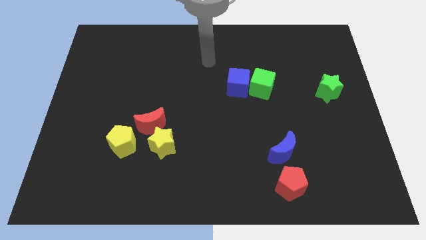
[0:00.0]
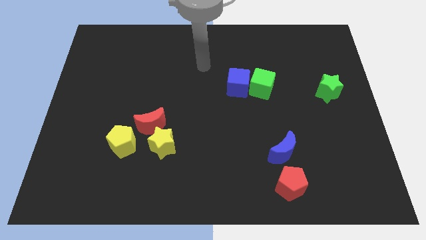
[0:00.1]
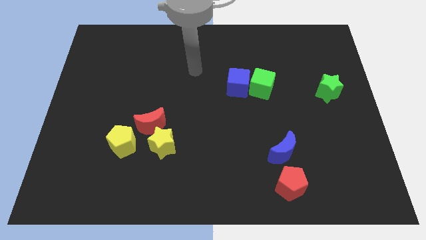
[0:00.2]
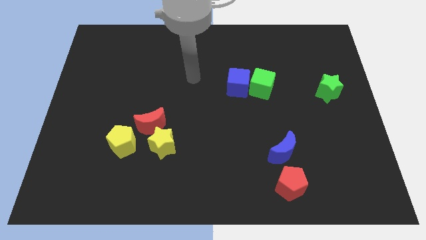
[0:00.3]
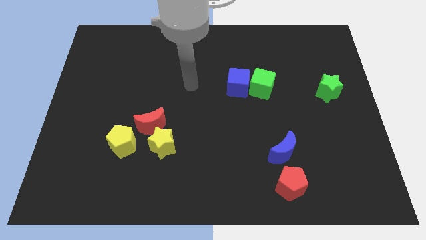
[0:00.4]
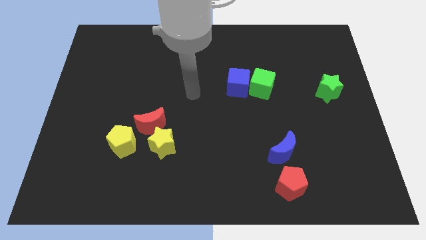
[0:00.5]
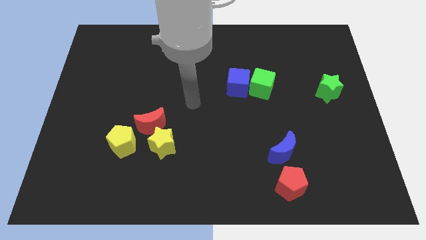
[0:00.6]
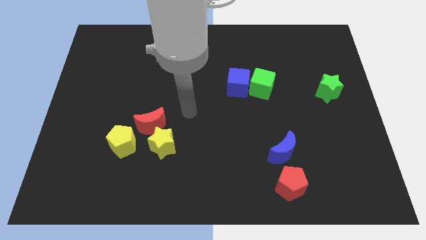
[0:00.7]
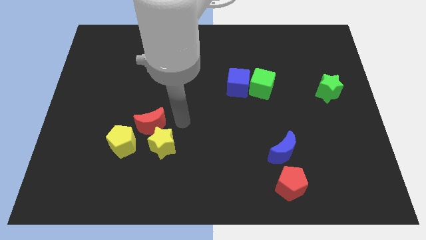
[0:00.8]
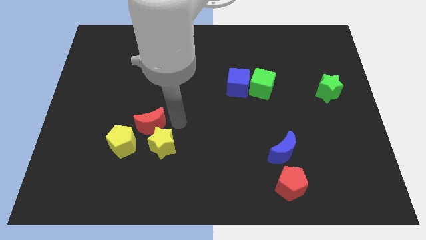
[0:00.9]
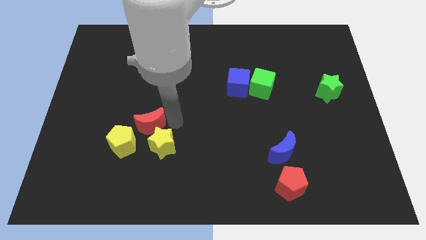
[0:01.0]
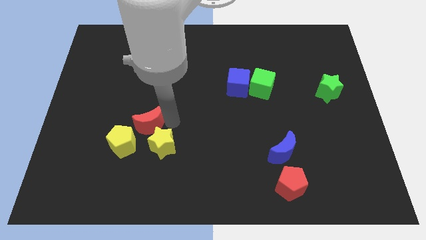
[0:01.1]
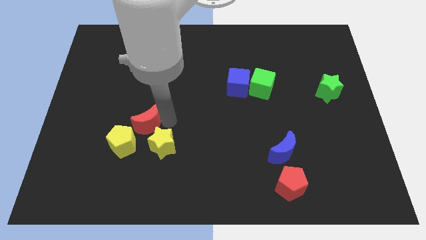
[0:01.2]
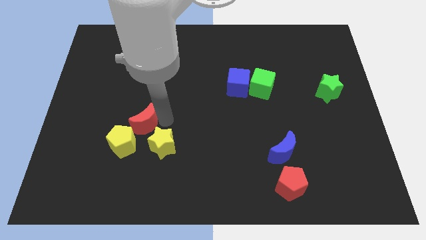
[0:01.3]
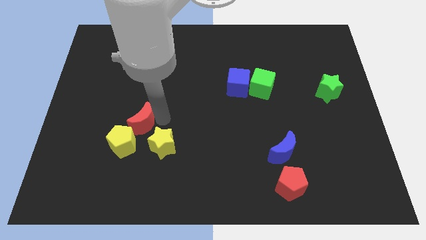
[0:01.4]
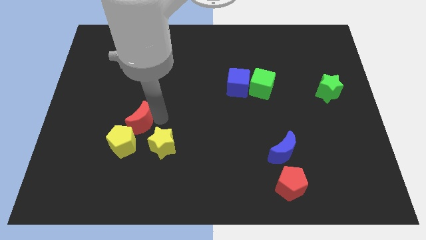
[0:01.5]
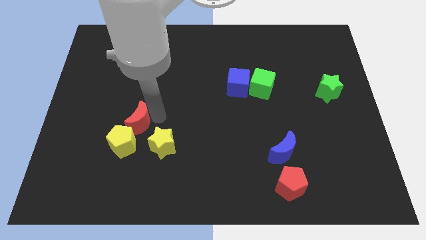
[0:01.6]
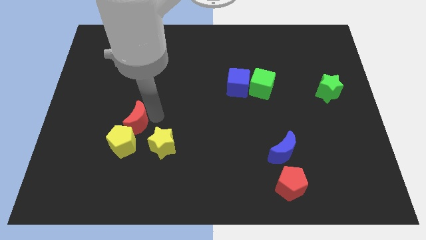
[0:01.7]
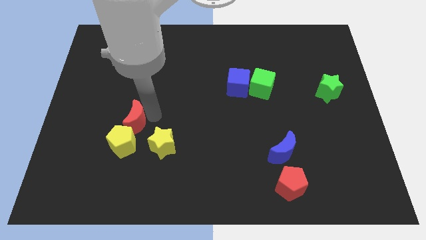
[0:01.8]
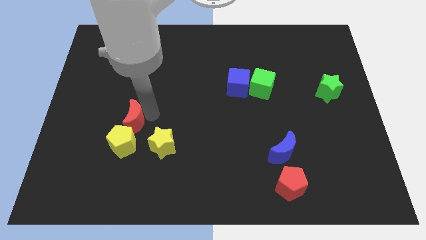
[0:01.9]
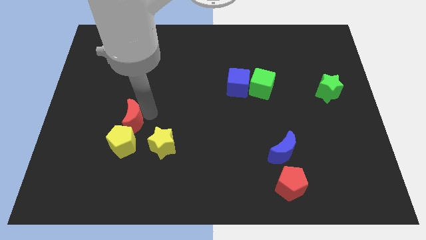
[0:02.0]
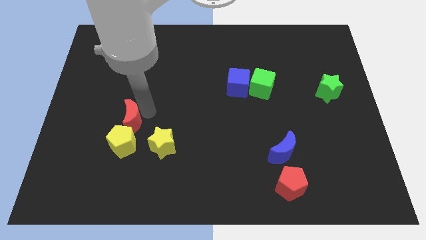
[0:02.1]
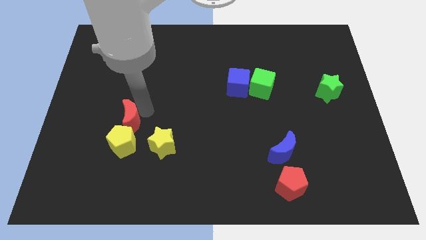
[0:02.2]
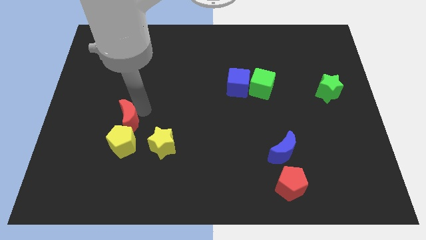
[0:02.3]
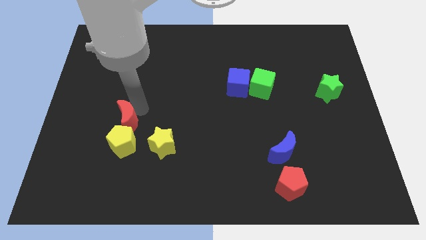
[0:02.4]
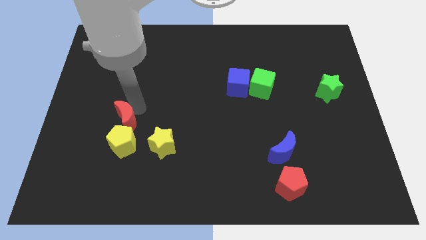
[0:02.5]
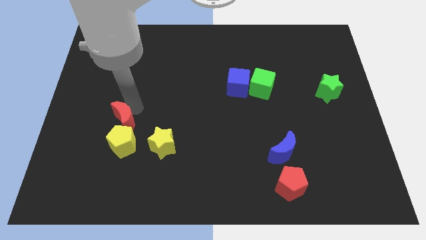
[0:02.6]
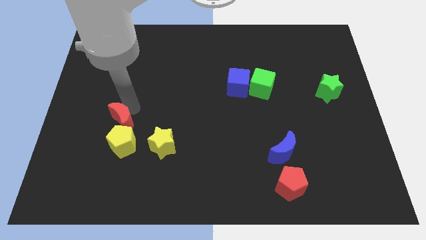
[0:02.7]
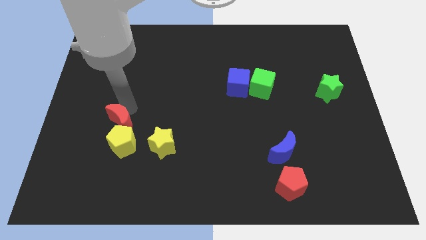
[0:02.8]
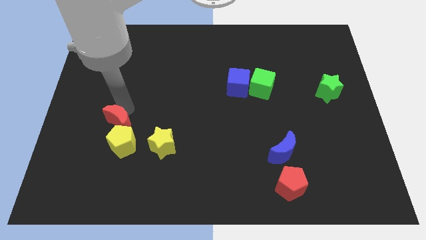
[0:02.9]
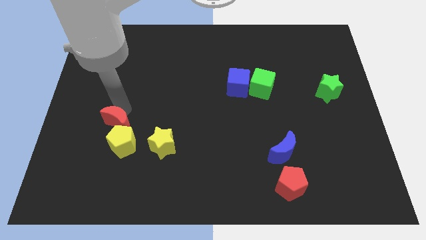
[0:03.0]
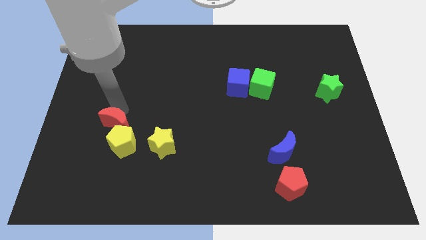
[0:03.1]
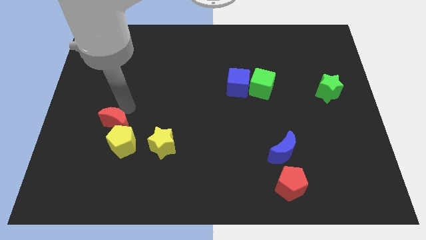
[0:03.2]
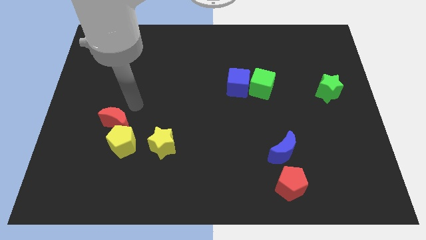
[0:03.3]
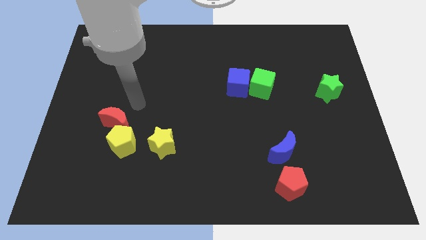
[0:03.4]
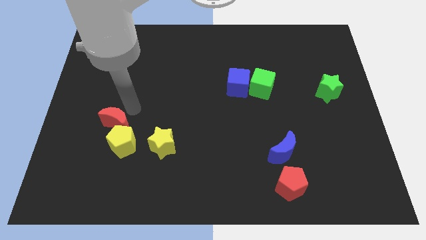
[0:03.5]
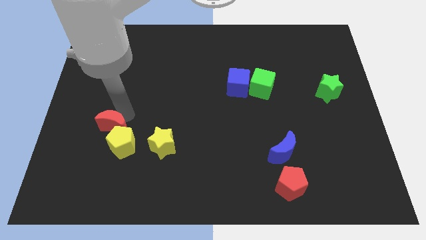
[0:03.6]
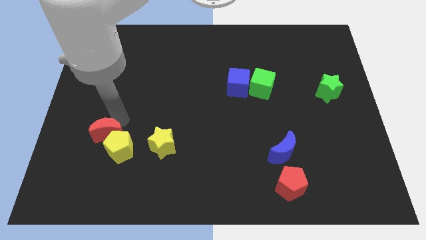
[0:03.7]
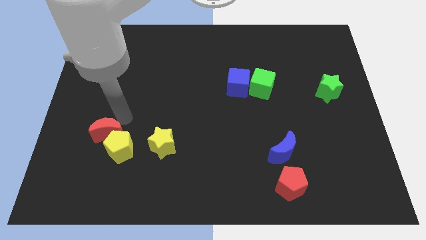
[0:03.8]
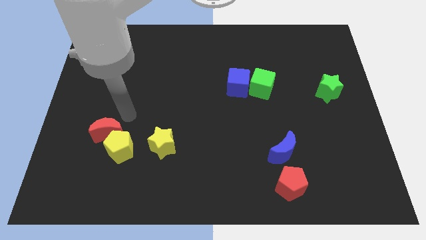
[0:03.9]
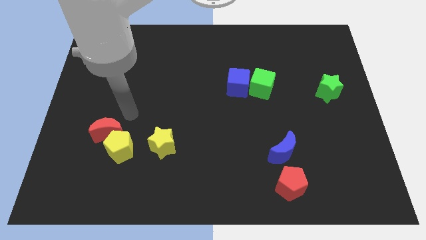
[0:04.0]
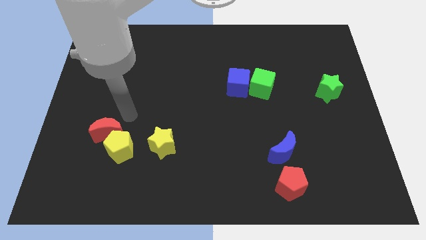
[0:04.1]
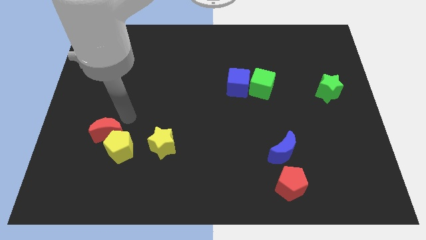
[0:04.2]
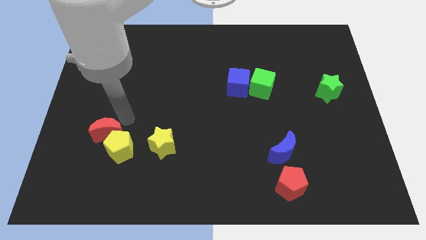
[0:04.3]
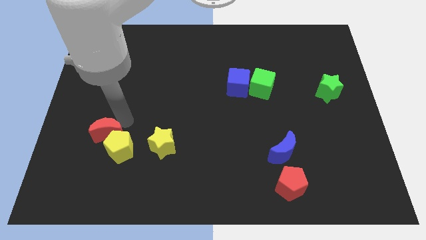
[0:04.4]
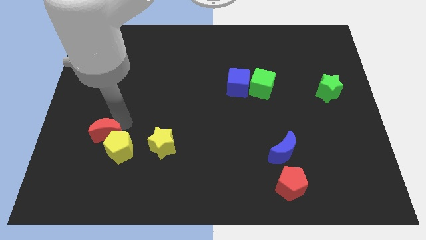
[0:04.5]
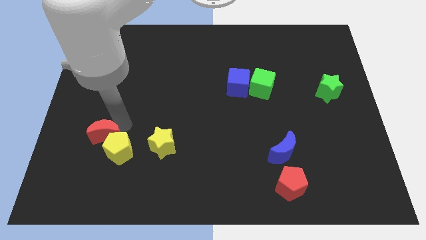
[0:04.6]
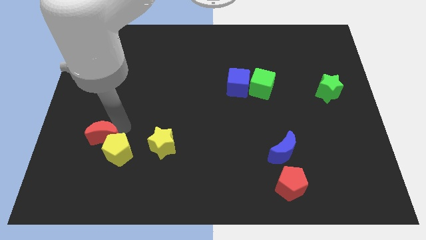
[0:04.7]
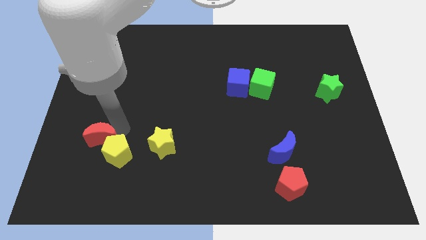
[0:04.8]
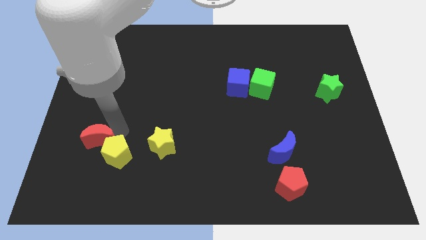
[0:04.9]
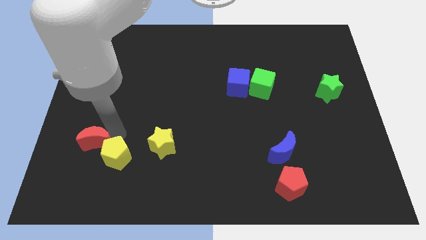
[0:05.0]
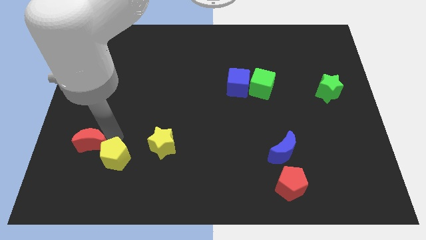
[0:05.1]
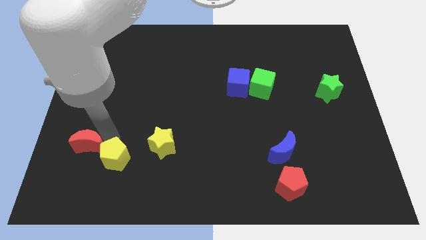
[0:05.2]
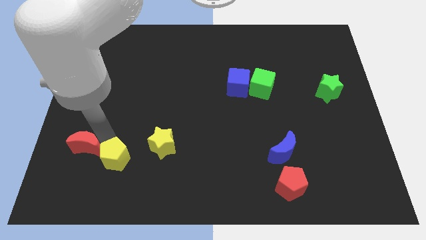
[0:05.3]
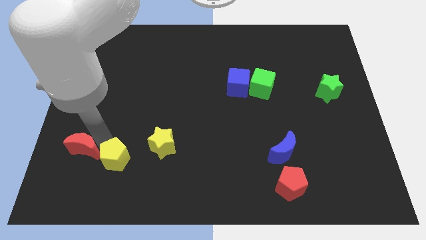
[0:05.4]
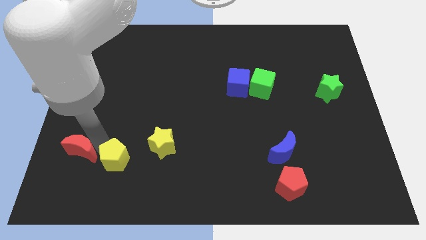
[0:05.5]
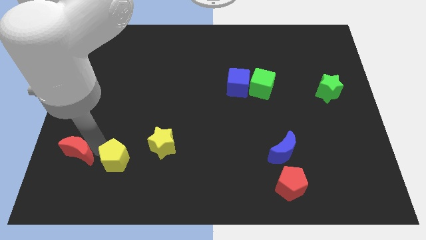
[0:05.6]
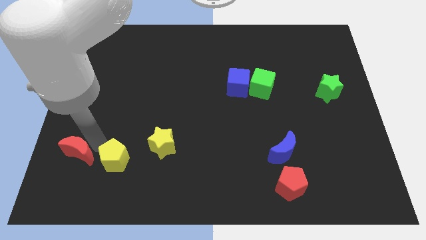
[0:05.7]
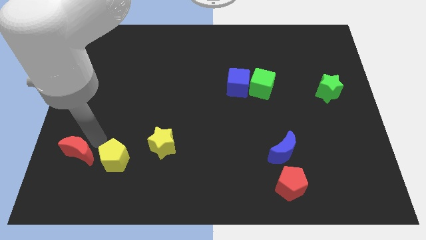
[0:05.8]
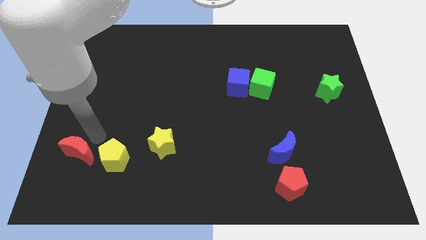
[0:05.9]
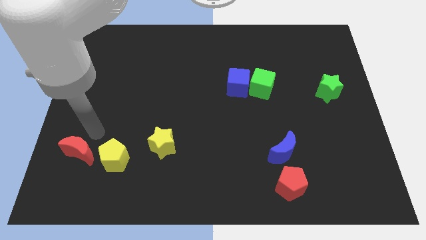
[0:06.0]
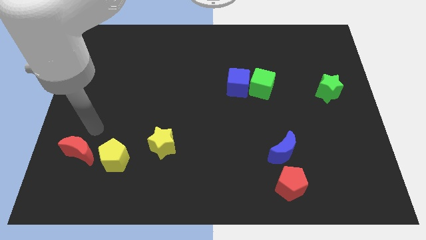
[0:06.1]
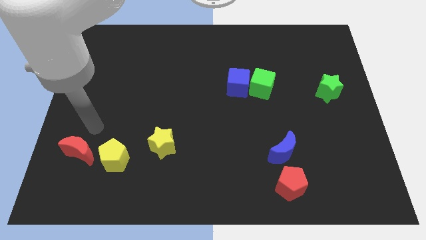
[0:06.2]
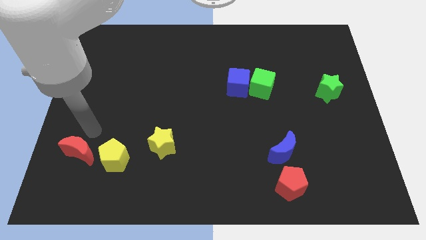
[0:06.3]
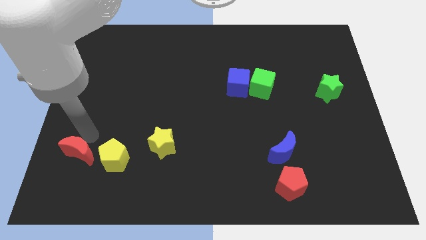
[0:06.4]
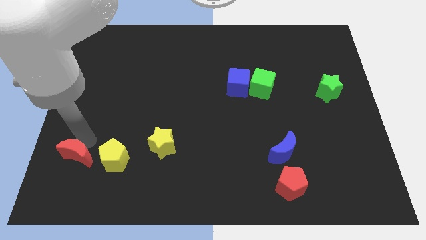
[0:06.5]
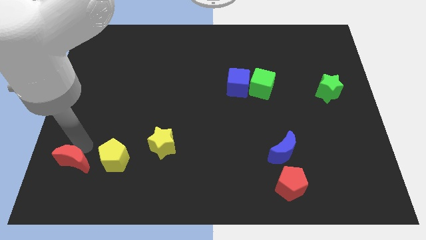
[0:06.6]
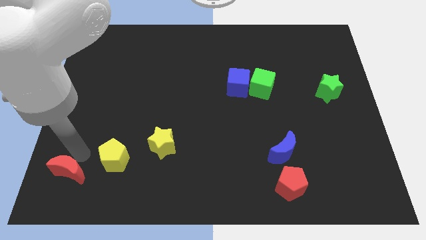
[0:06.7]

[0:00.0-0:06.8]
slide the red moon to the bottom left
